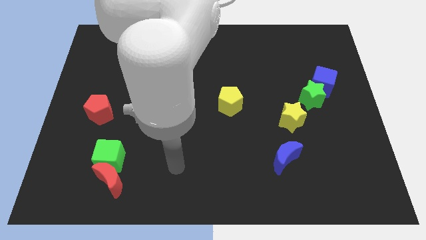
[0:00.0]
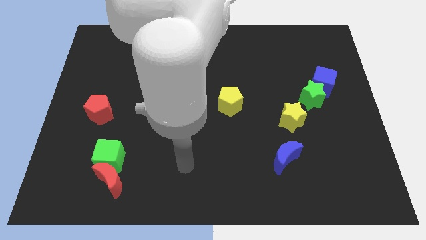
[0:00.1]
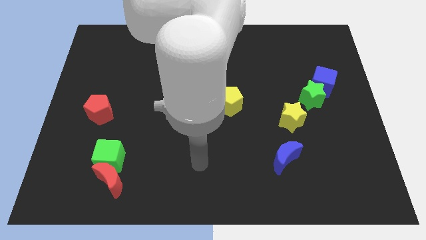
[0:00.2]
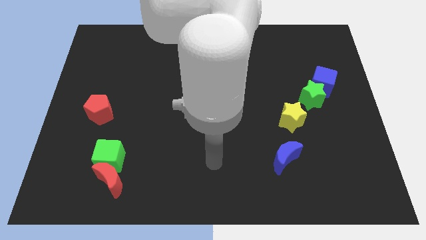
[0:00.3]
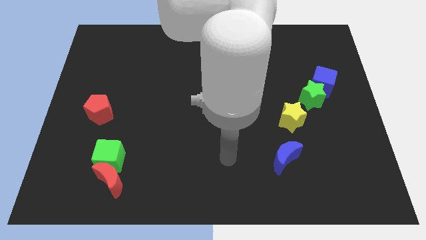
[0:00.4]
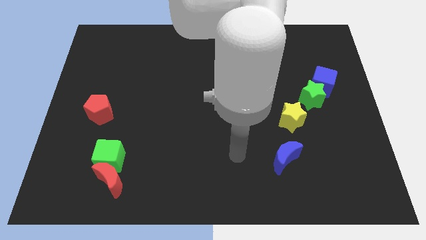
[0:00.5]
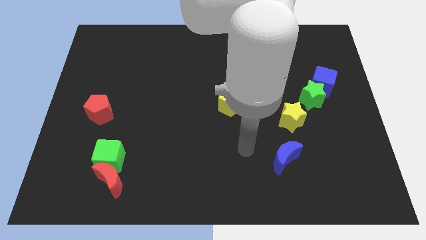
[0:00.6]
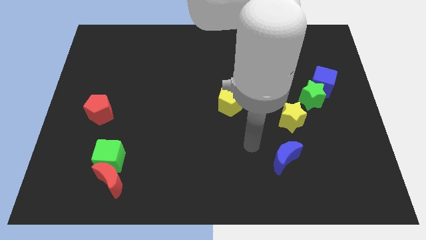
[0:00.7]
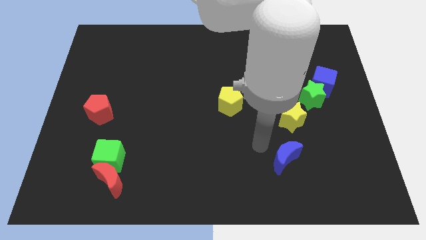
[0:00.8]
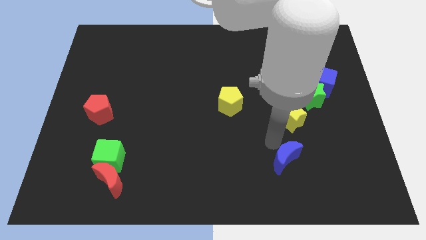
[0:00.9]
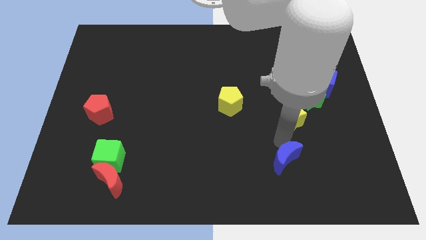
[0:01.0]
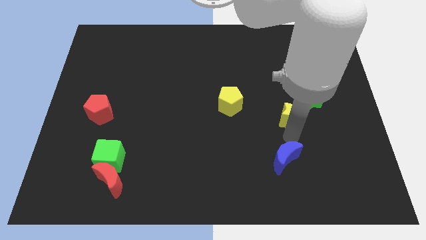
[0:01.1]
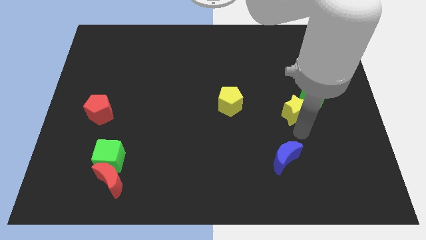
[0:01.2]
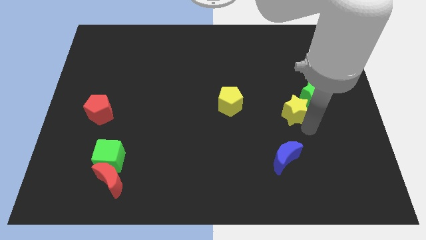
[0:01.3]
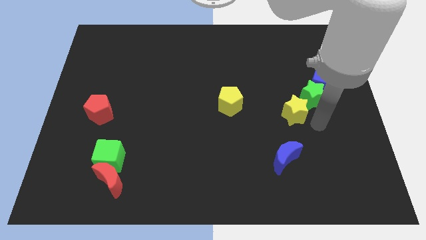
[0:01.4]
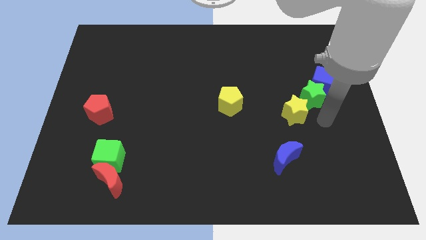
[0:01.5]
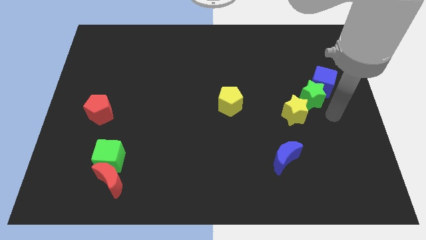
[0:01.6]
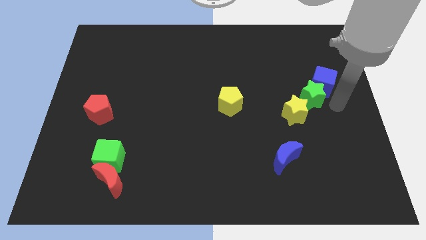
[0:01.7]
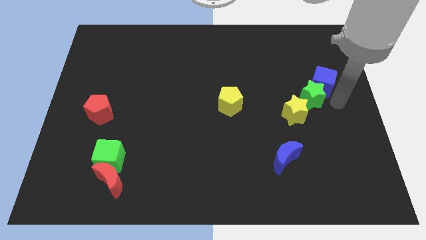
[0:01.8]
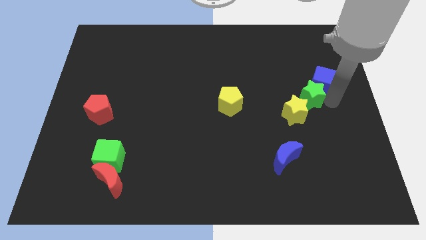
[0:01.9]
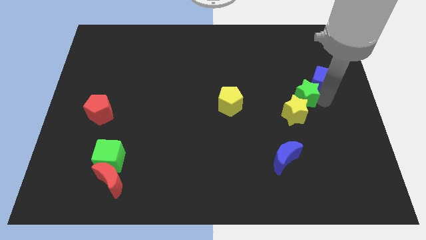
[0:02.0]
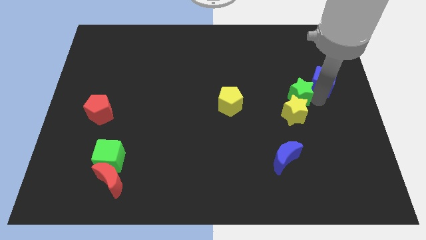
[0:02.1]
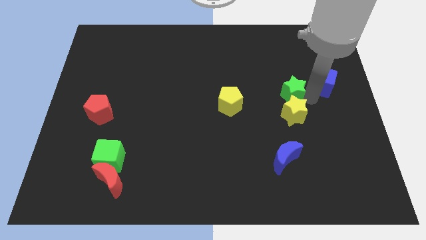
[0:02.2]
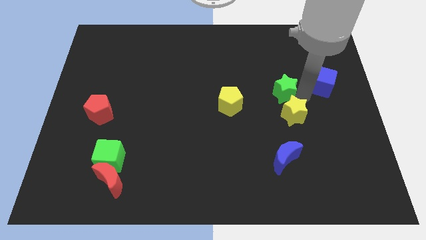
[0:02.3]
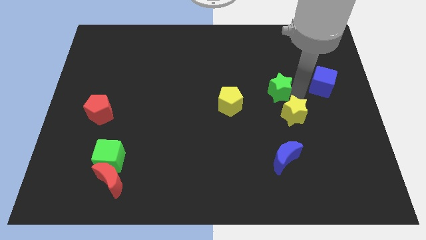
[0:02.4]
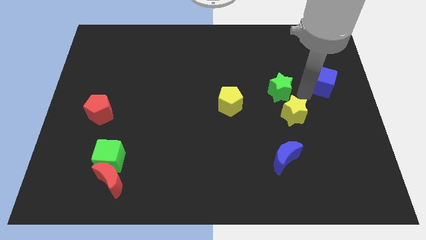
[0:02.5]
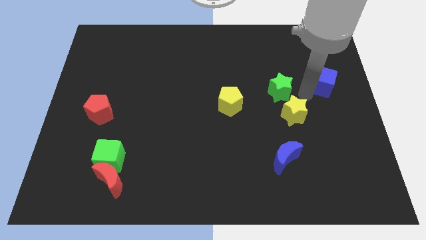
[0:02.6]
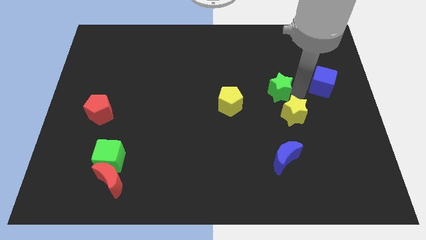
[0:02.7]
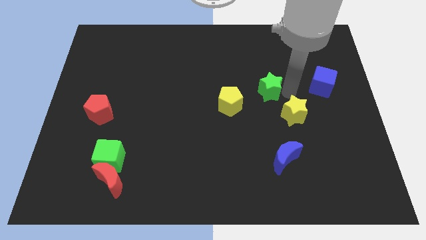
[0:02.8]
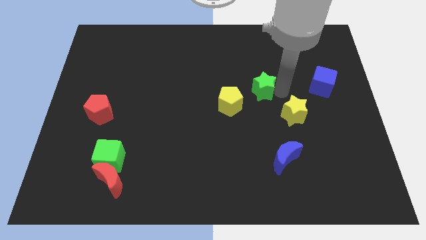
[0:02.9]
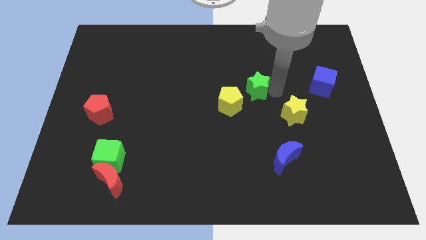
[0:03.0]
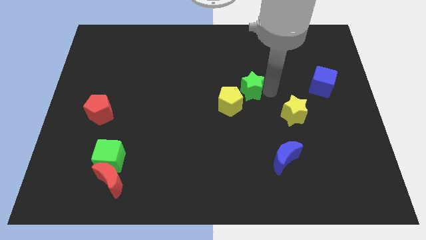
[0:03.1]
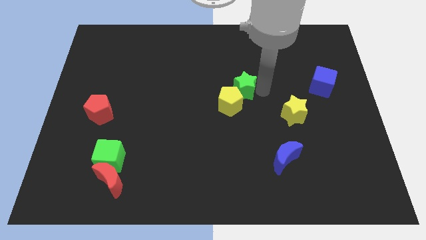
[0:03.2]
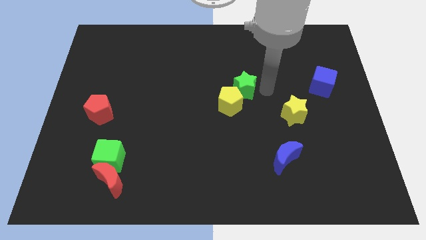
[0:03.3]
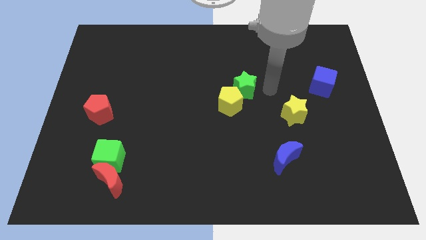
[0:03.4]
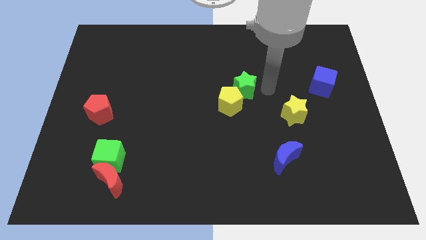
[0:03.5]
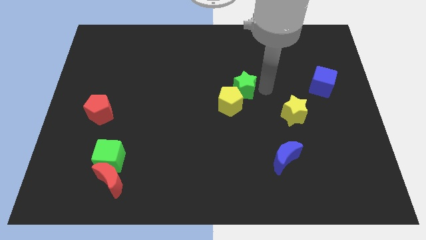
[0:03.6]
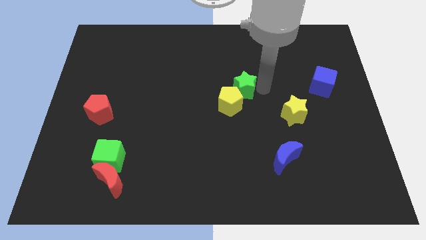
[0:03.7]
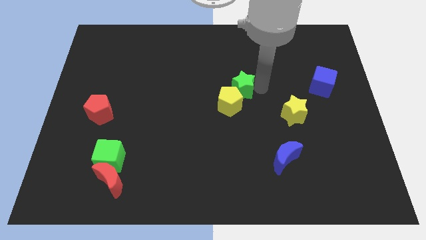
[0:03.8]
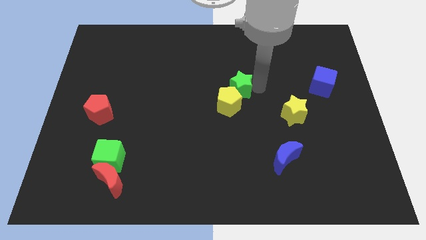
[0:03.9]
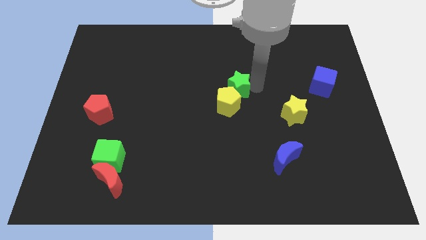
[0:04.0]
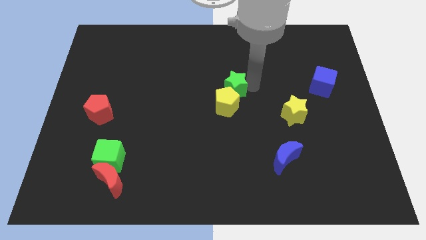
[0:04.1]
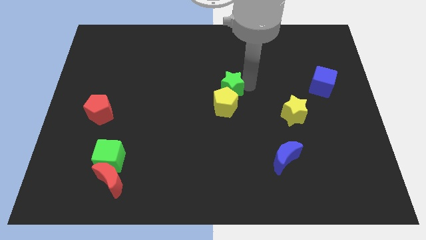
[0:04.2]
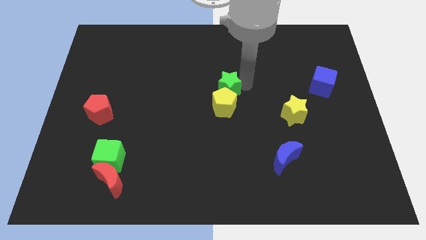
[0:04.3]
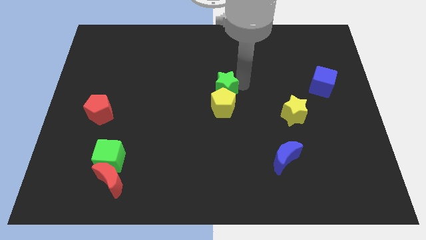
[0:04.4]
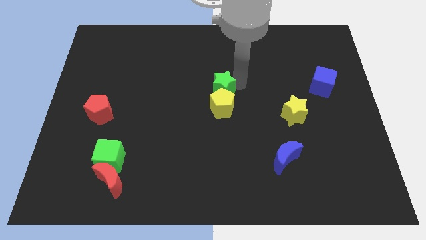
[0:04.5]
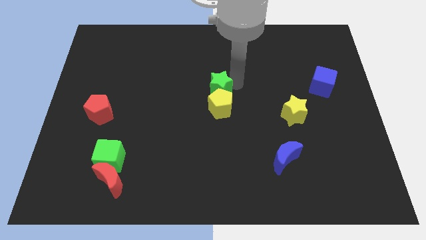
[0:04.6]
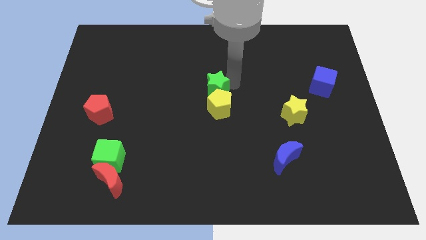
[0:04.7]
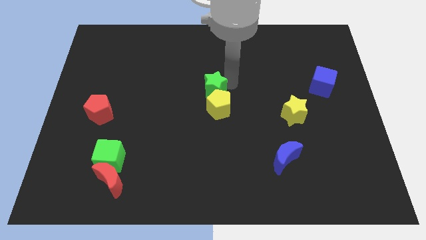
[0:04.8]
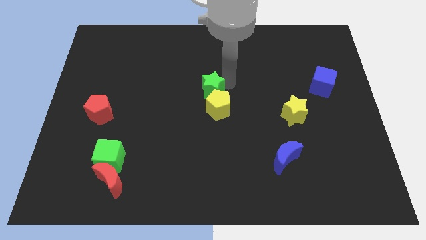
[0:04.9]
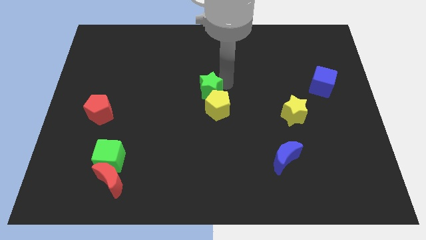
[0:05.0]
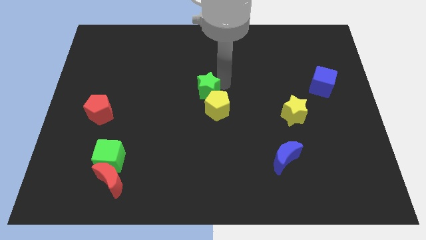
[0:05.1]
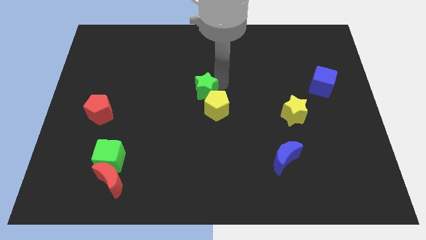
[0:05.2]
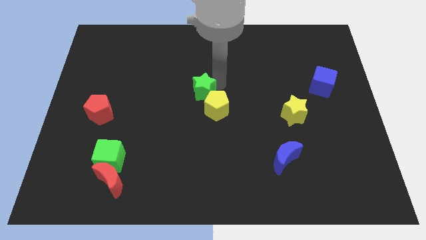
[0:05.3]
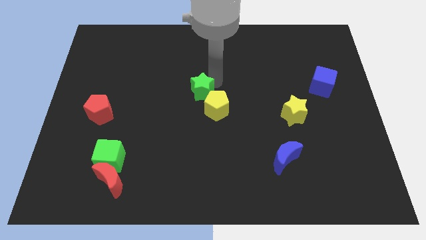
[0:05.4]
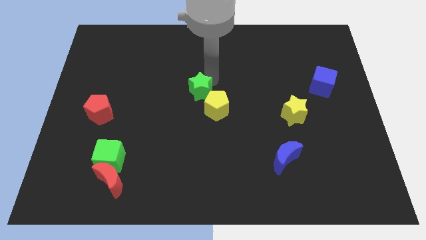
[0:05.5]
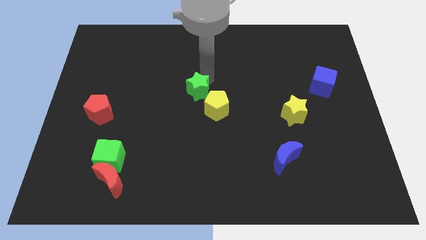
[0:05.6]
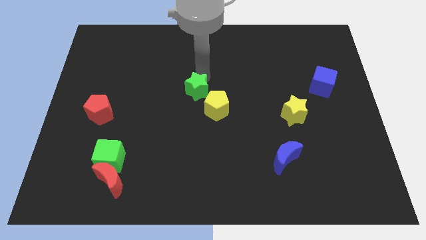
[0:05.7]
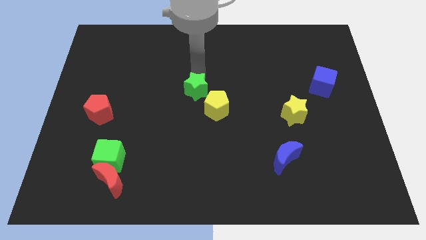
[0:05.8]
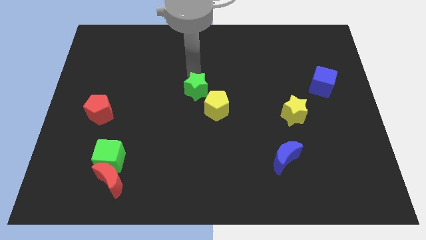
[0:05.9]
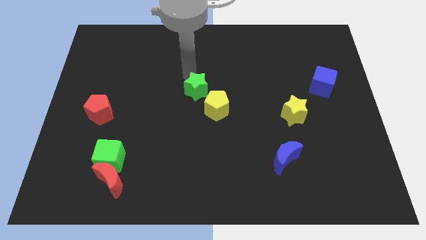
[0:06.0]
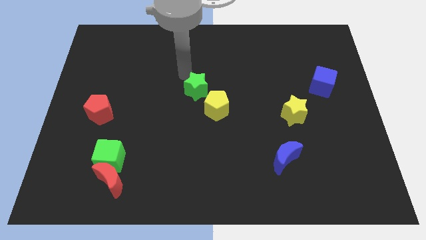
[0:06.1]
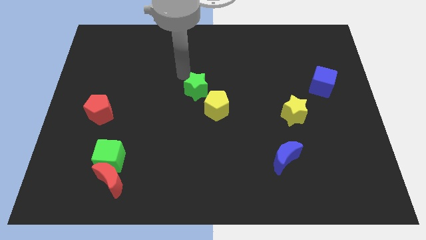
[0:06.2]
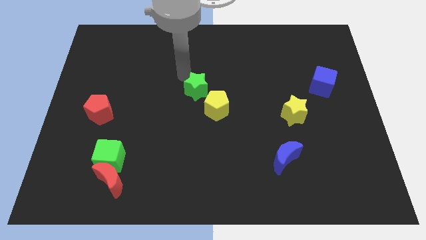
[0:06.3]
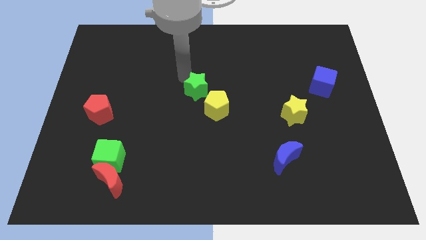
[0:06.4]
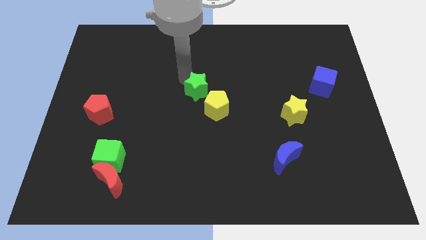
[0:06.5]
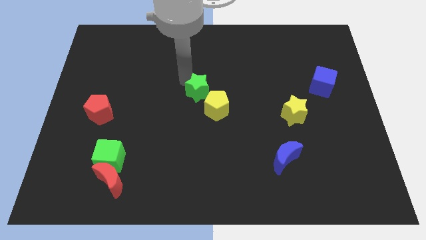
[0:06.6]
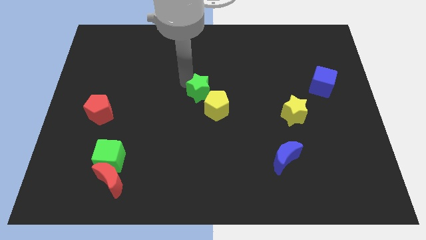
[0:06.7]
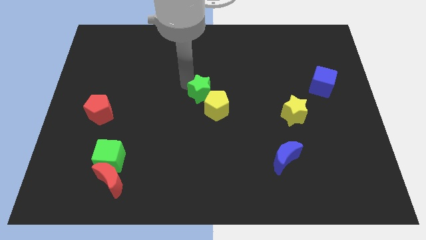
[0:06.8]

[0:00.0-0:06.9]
slide the green star just left of the yellow pentagon

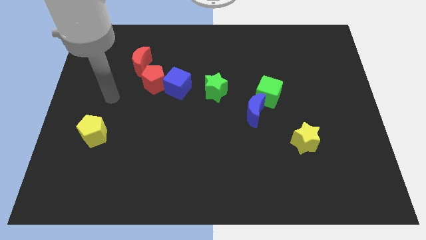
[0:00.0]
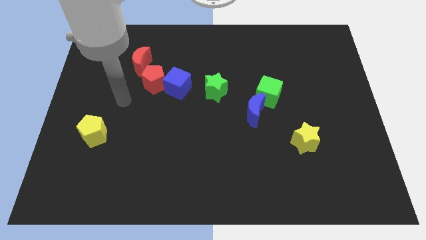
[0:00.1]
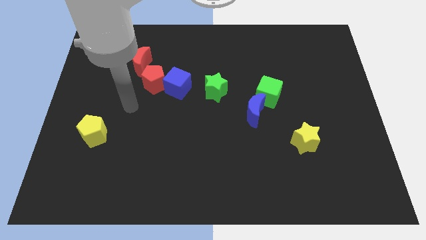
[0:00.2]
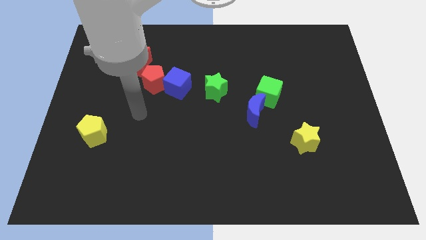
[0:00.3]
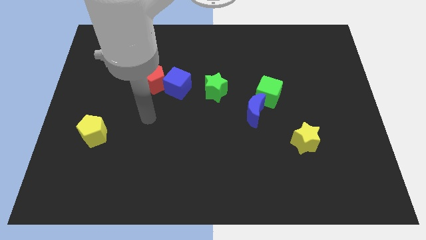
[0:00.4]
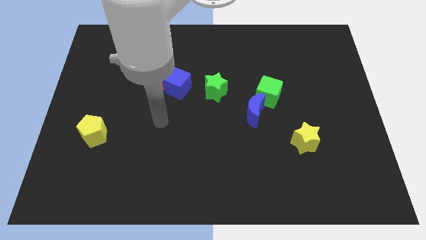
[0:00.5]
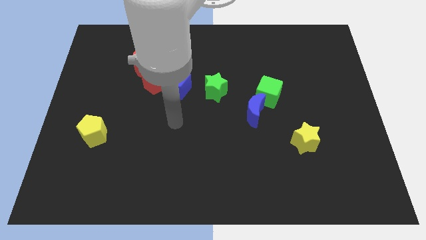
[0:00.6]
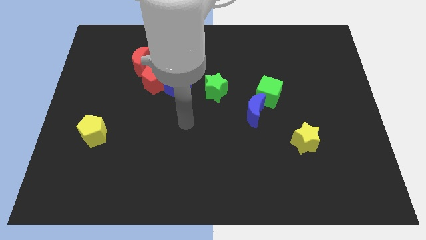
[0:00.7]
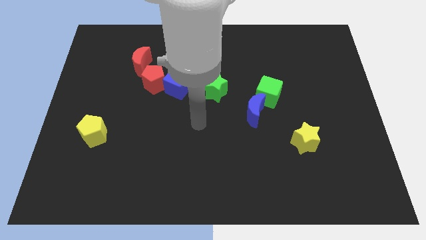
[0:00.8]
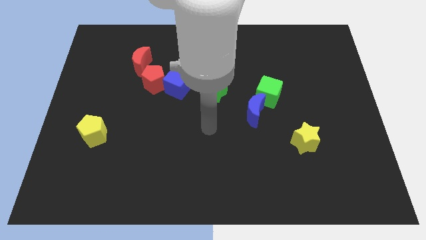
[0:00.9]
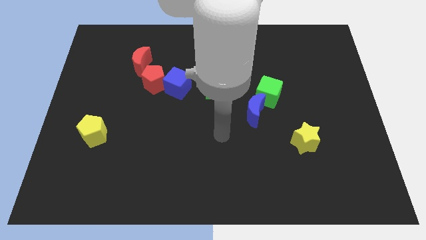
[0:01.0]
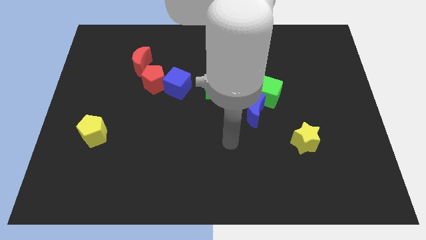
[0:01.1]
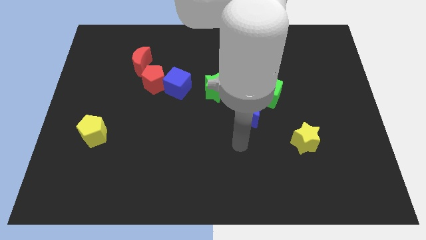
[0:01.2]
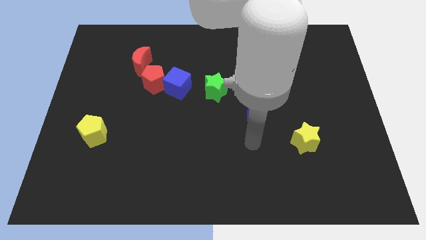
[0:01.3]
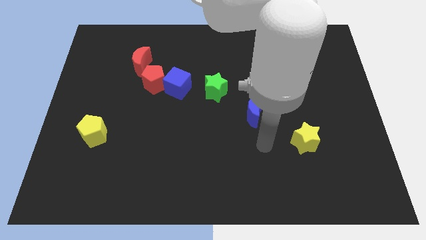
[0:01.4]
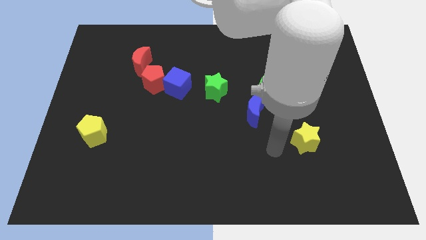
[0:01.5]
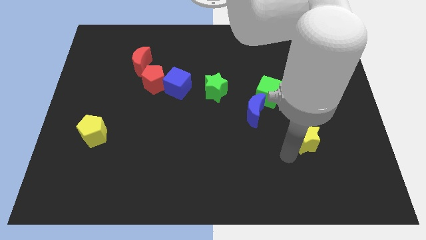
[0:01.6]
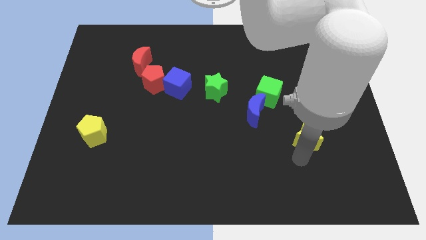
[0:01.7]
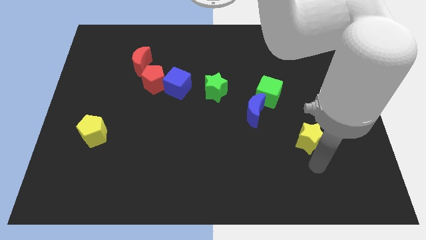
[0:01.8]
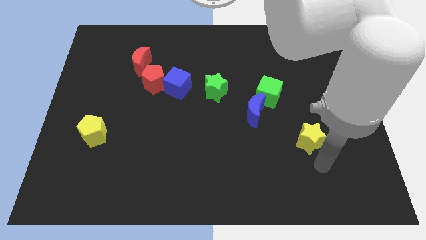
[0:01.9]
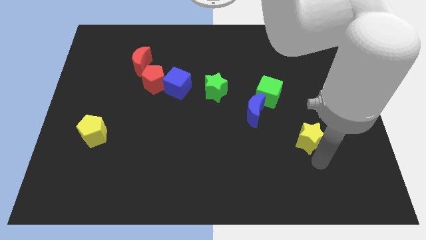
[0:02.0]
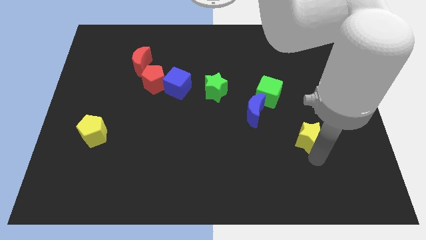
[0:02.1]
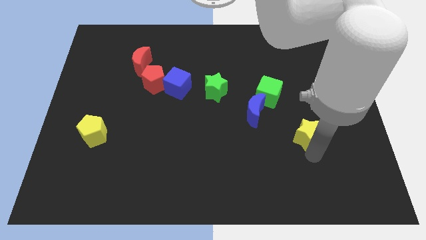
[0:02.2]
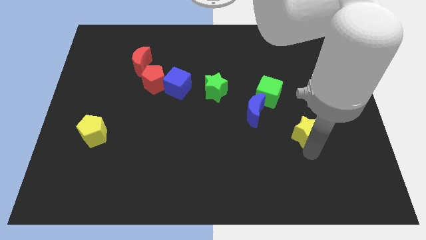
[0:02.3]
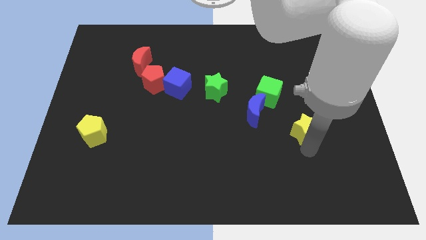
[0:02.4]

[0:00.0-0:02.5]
slide the yellow star to the bottom right side of the green cube
